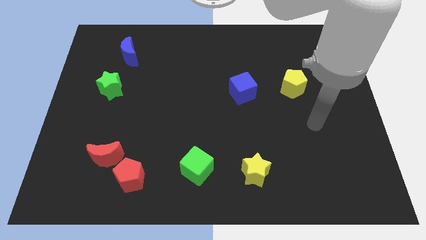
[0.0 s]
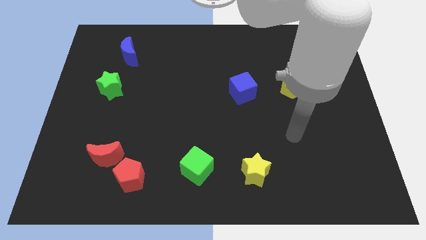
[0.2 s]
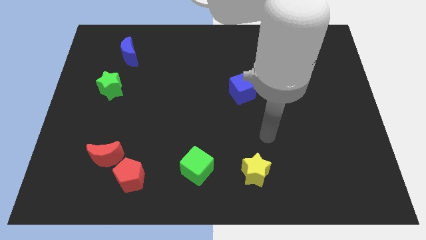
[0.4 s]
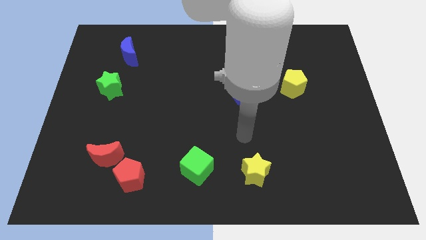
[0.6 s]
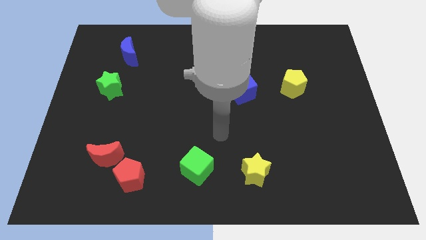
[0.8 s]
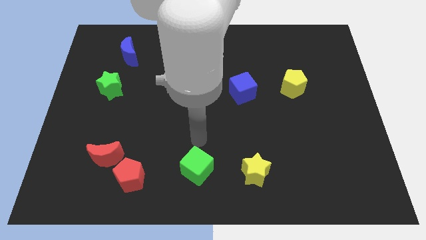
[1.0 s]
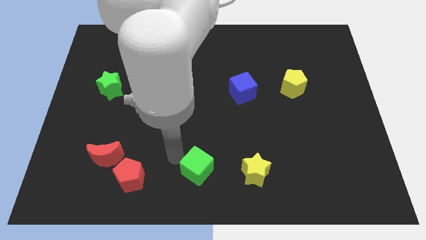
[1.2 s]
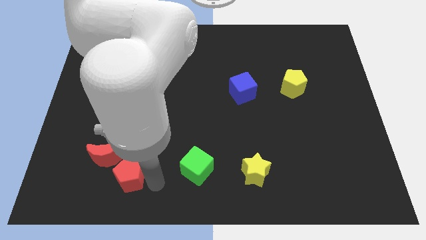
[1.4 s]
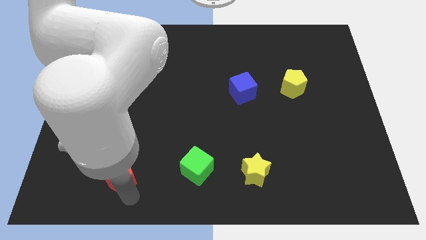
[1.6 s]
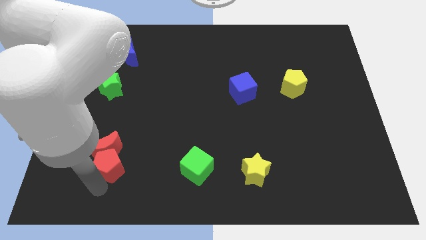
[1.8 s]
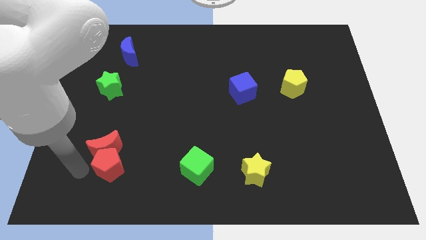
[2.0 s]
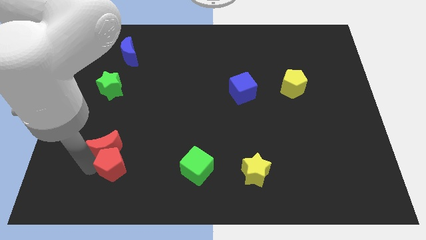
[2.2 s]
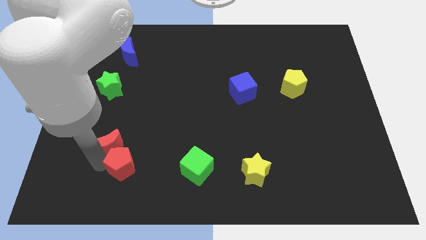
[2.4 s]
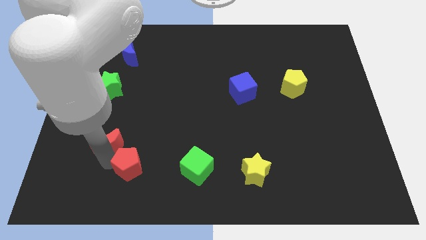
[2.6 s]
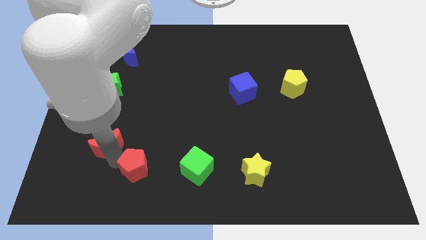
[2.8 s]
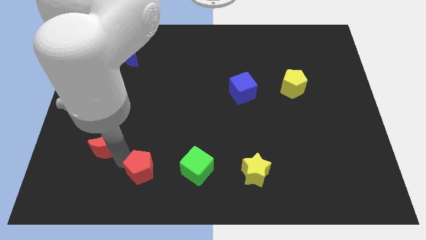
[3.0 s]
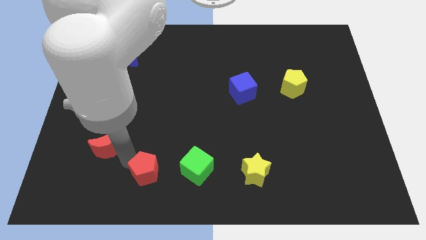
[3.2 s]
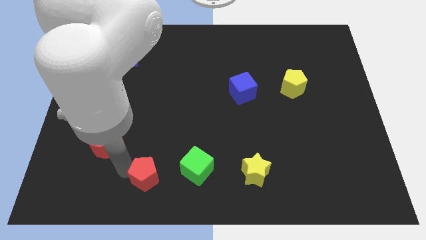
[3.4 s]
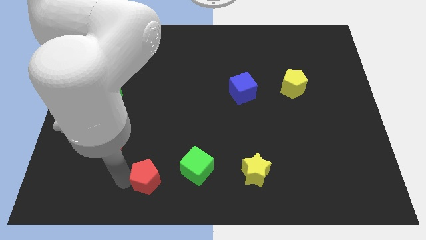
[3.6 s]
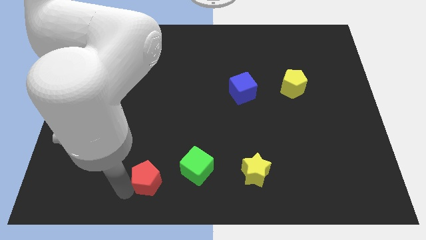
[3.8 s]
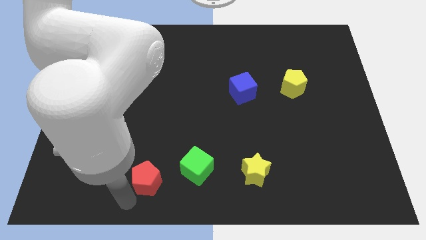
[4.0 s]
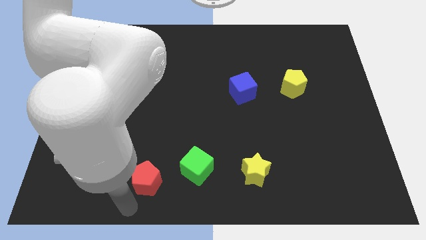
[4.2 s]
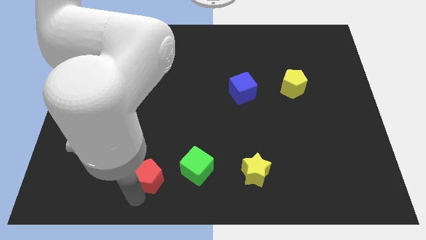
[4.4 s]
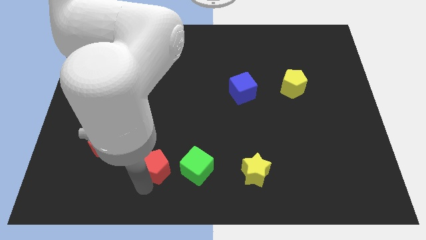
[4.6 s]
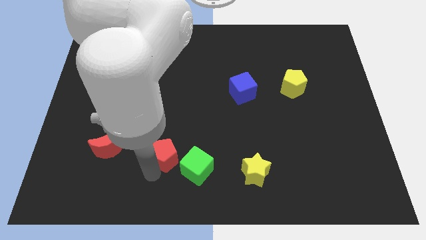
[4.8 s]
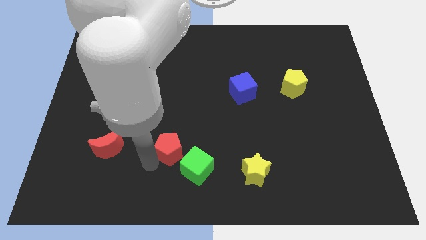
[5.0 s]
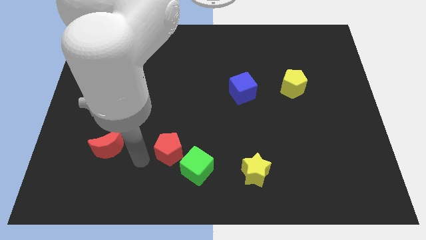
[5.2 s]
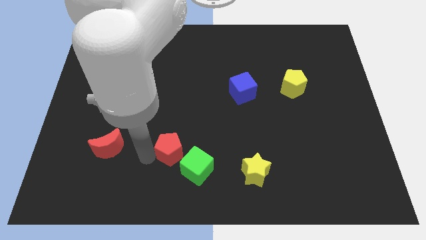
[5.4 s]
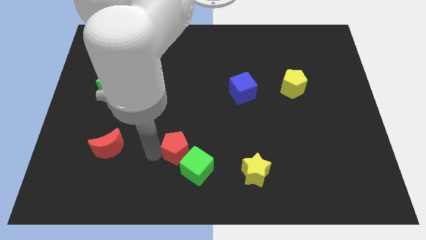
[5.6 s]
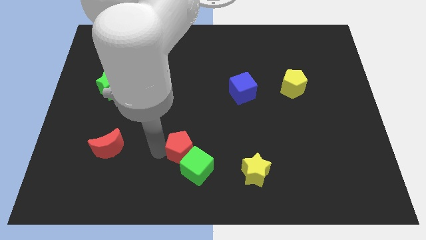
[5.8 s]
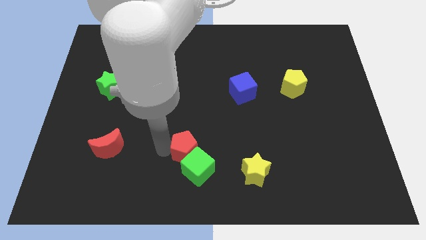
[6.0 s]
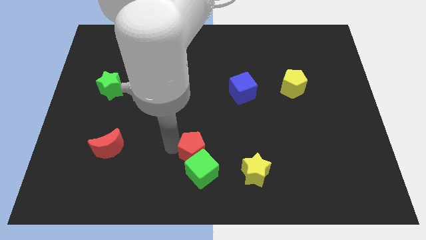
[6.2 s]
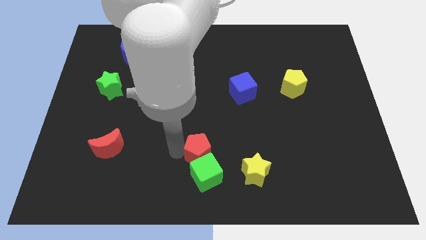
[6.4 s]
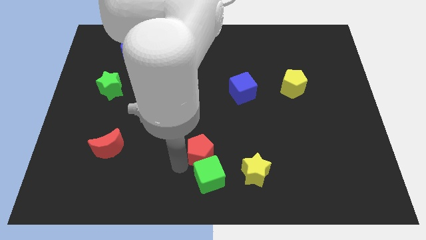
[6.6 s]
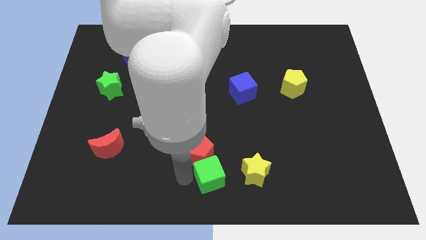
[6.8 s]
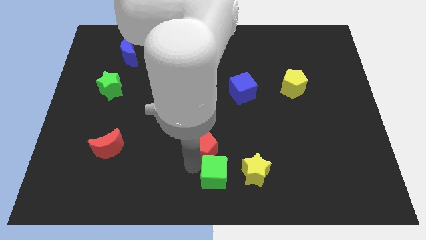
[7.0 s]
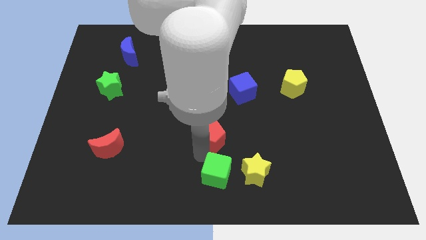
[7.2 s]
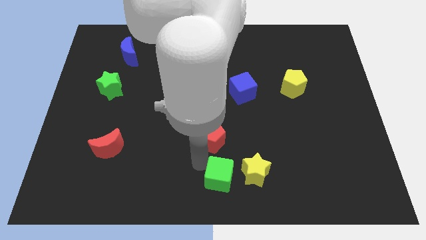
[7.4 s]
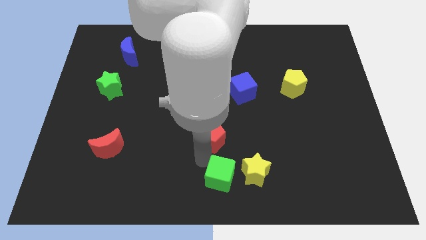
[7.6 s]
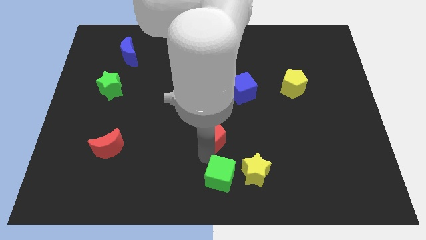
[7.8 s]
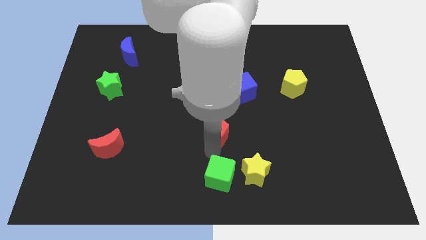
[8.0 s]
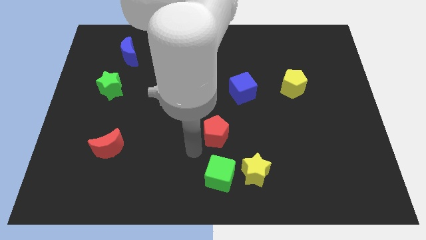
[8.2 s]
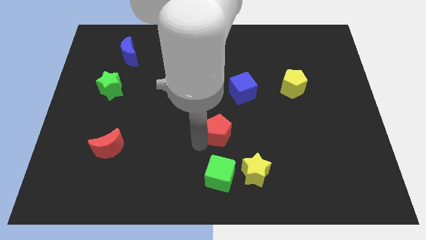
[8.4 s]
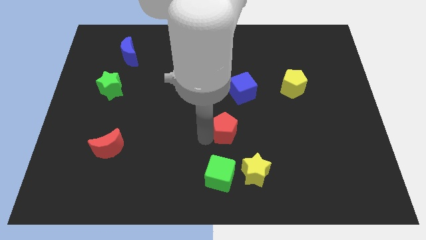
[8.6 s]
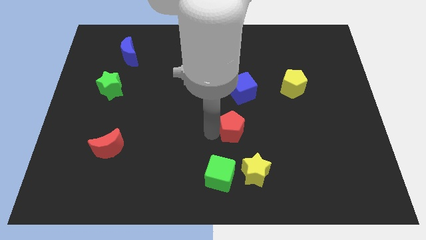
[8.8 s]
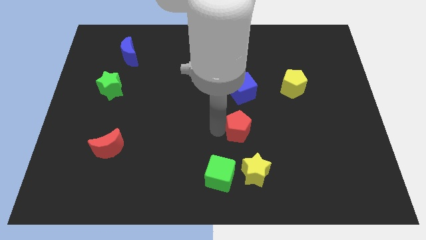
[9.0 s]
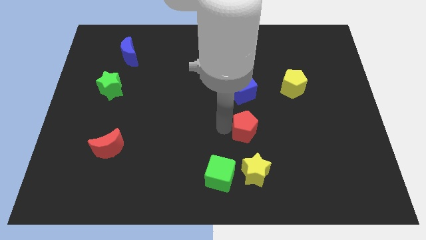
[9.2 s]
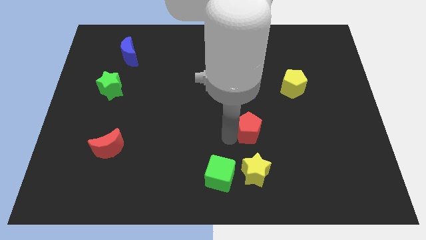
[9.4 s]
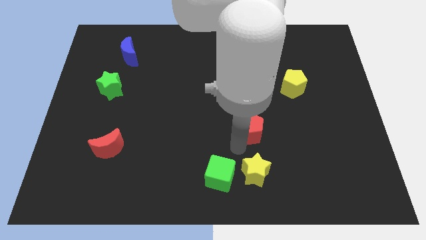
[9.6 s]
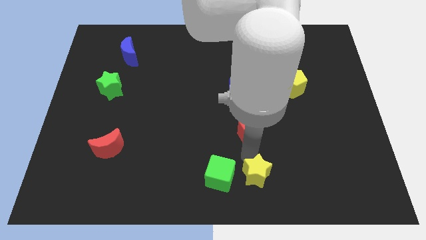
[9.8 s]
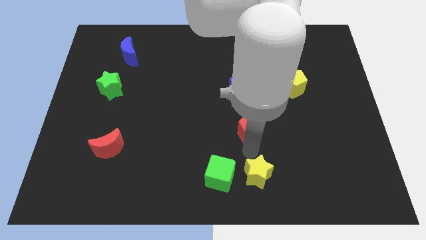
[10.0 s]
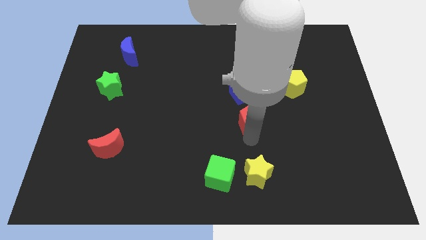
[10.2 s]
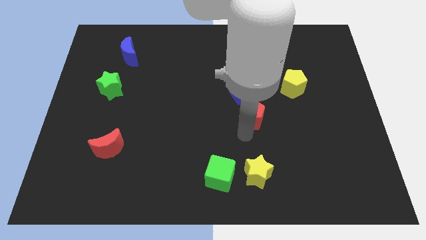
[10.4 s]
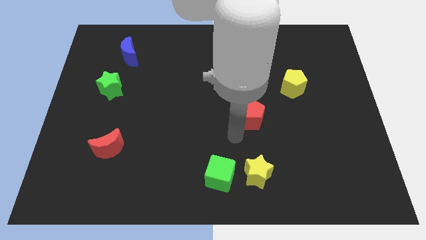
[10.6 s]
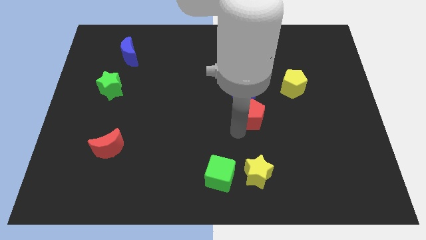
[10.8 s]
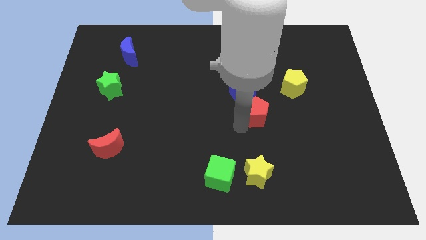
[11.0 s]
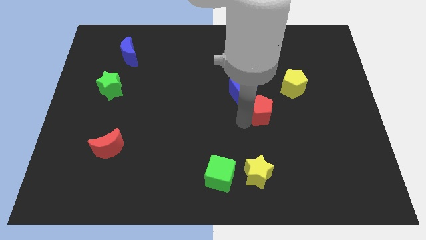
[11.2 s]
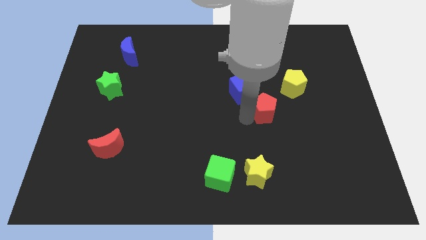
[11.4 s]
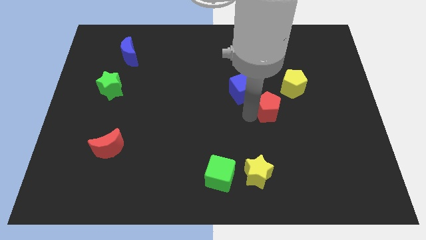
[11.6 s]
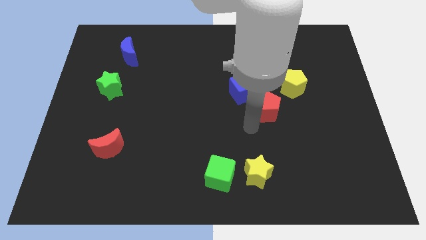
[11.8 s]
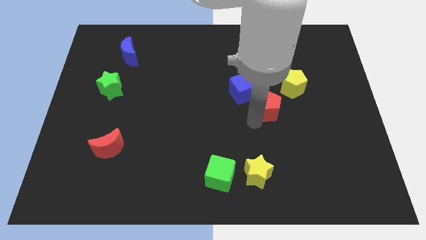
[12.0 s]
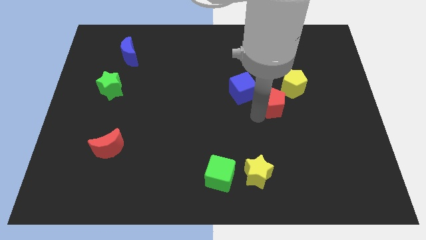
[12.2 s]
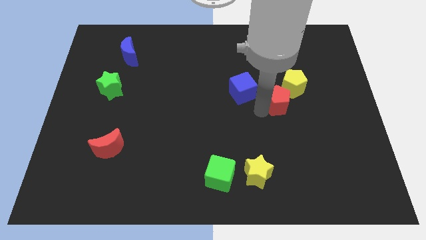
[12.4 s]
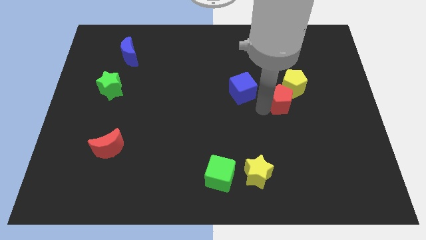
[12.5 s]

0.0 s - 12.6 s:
move the red pentagon next to the yellow pentagon

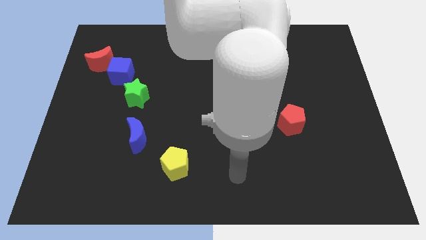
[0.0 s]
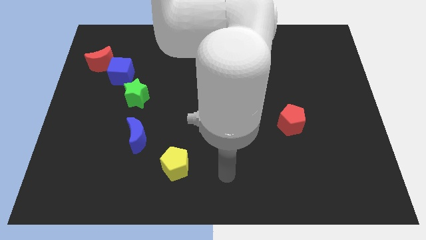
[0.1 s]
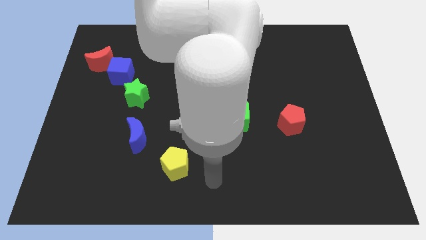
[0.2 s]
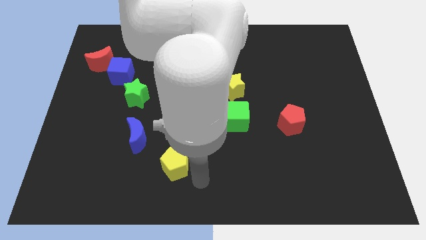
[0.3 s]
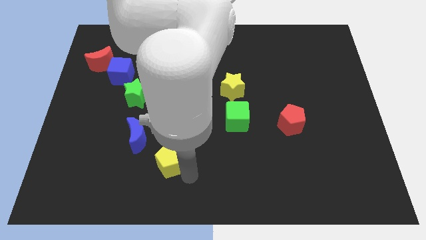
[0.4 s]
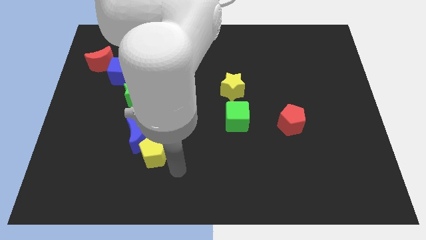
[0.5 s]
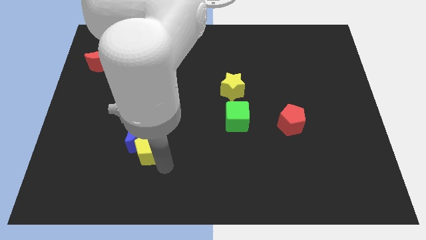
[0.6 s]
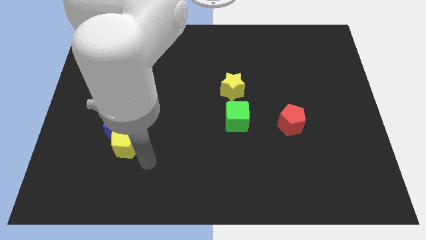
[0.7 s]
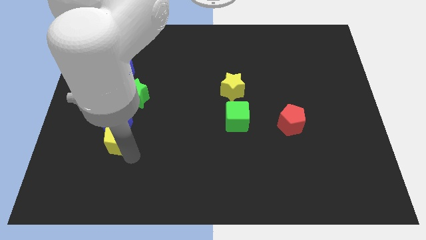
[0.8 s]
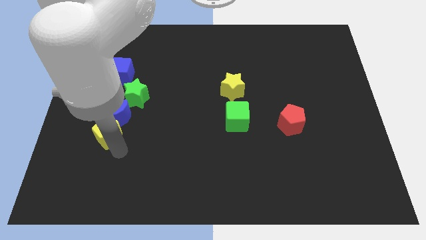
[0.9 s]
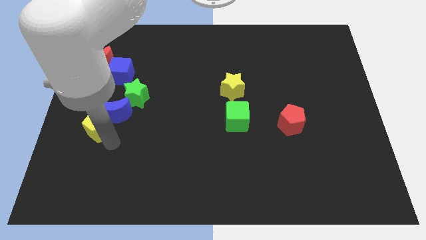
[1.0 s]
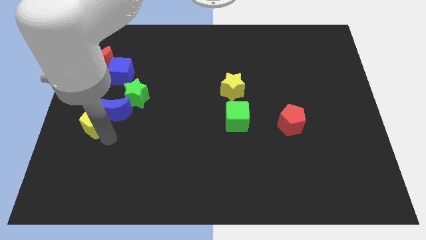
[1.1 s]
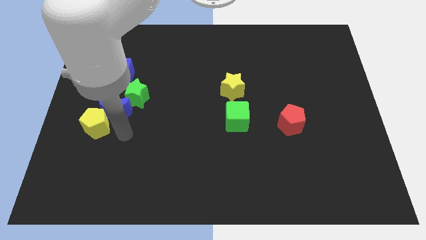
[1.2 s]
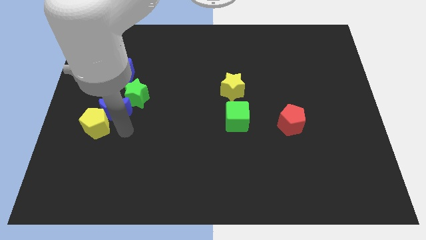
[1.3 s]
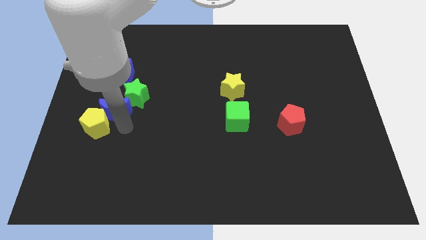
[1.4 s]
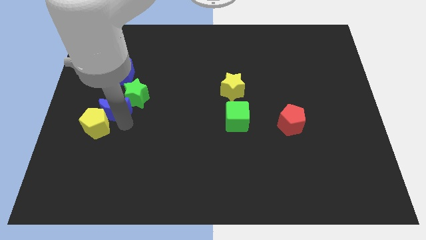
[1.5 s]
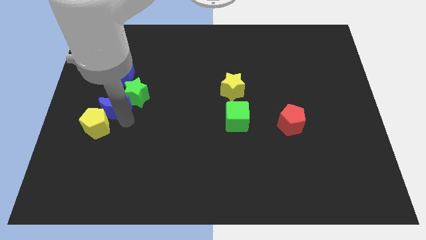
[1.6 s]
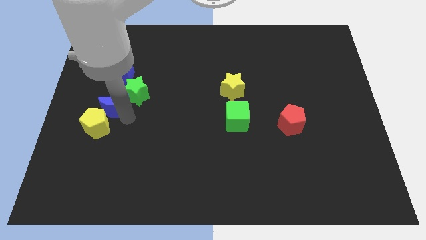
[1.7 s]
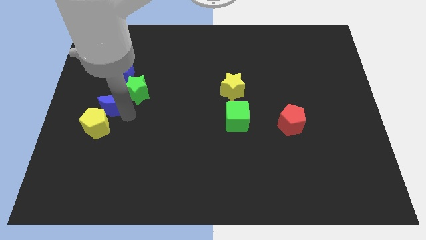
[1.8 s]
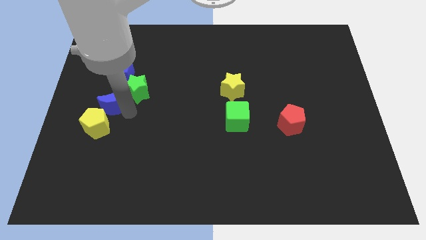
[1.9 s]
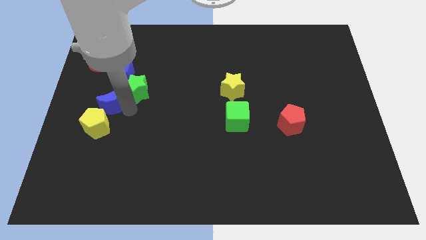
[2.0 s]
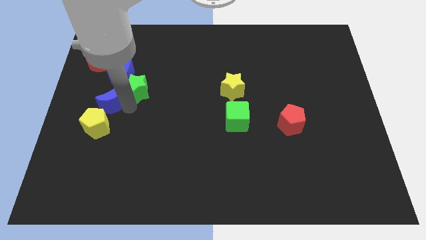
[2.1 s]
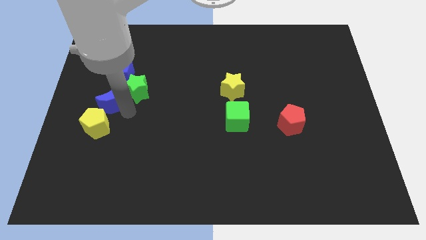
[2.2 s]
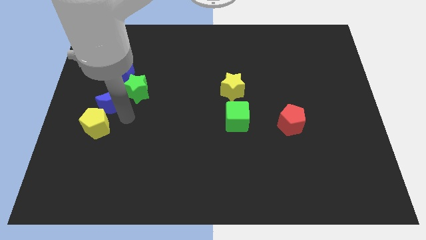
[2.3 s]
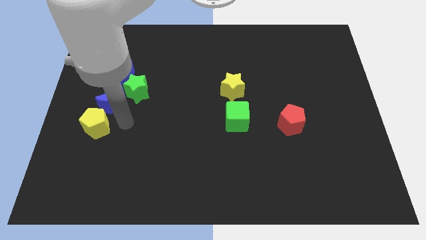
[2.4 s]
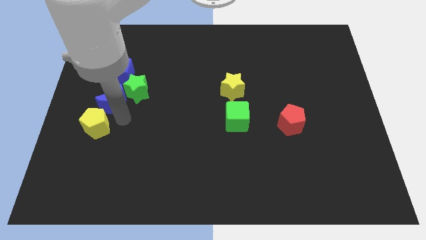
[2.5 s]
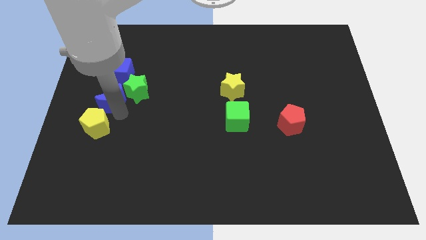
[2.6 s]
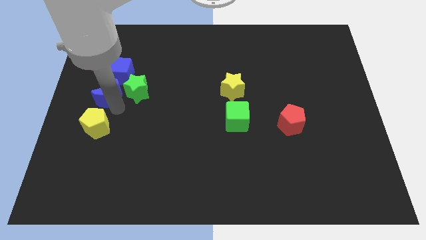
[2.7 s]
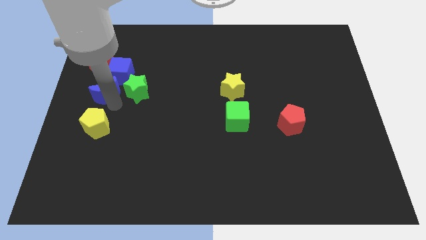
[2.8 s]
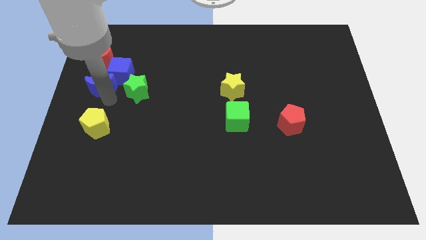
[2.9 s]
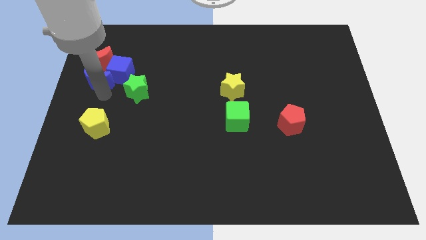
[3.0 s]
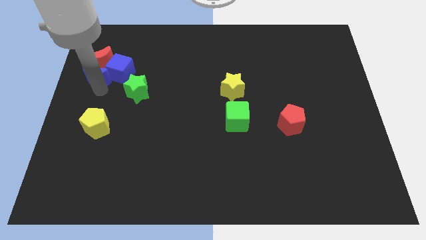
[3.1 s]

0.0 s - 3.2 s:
slide the blue moon to the red moon
